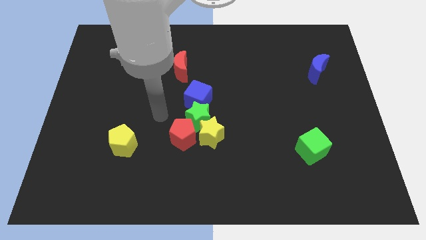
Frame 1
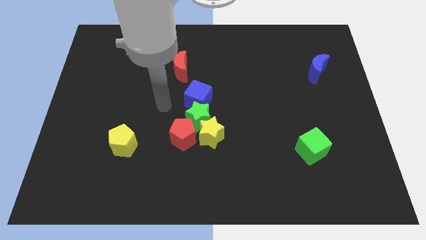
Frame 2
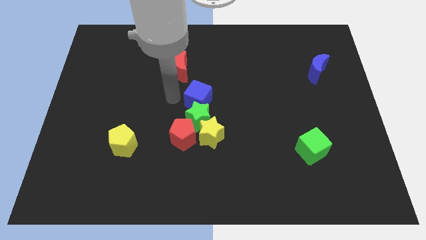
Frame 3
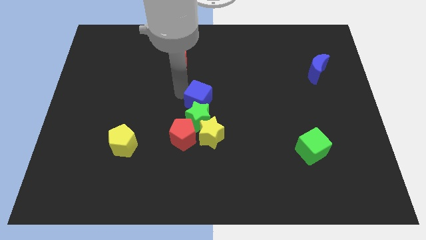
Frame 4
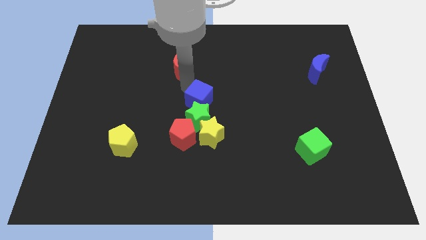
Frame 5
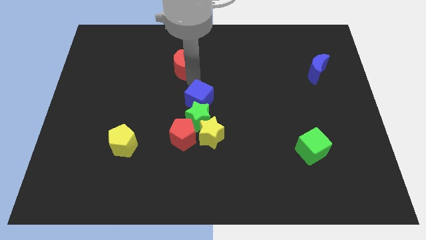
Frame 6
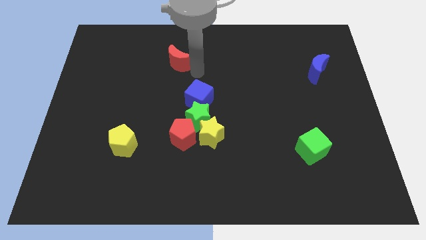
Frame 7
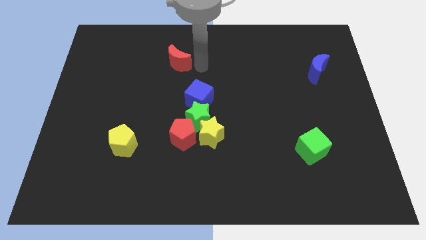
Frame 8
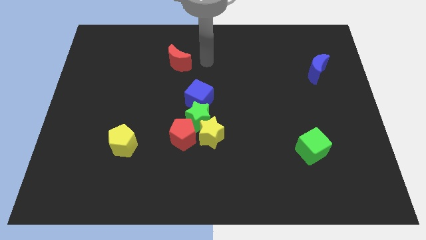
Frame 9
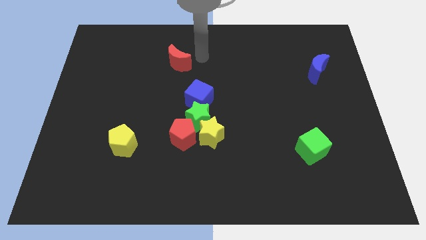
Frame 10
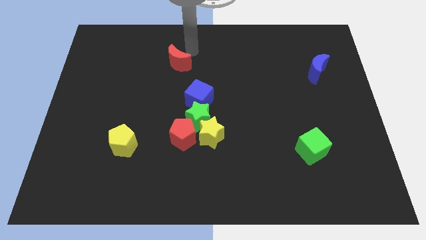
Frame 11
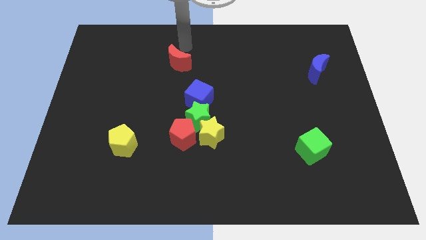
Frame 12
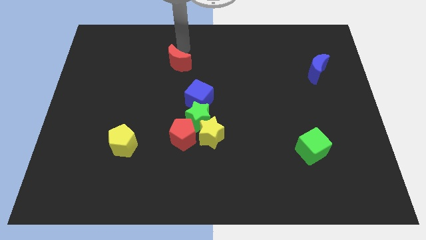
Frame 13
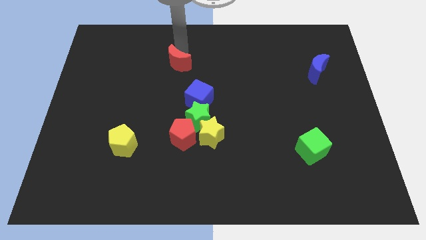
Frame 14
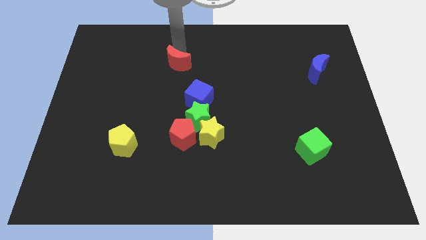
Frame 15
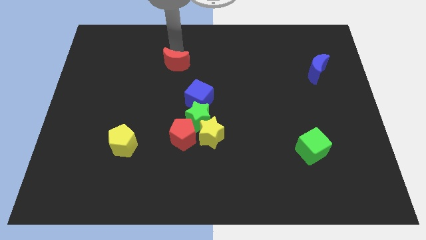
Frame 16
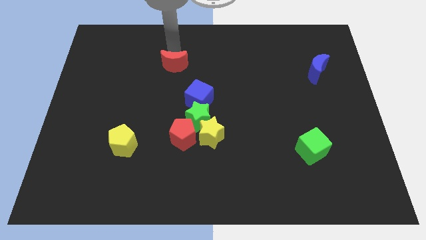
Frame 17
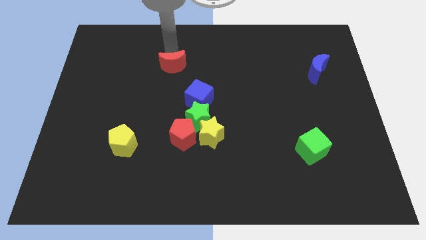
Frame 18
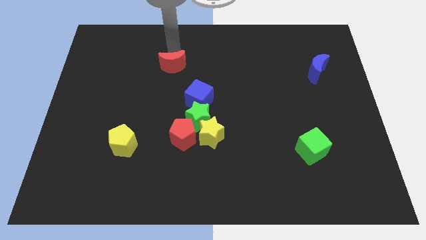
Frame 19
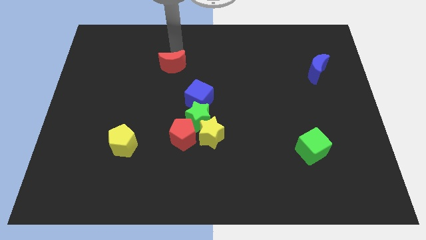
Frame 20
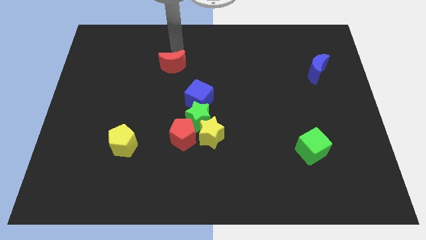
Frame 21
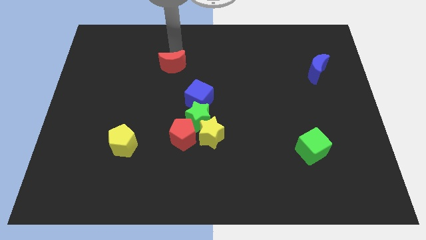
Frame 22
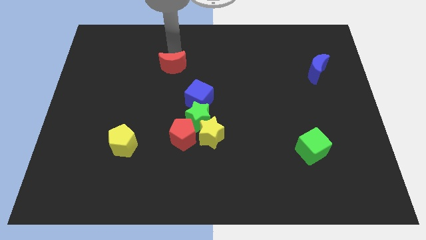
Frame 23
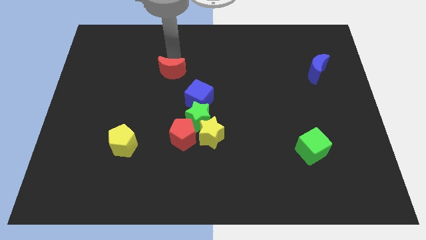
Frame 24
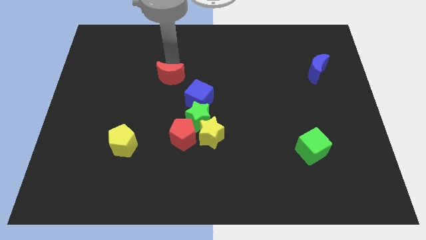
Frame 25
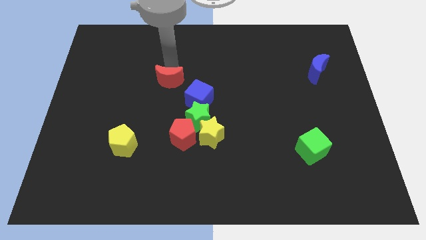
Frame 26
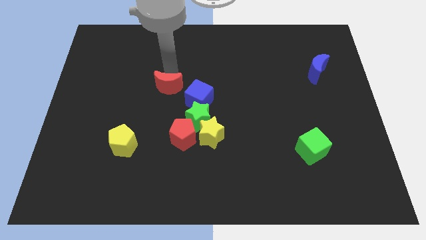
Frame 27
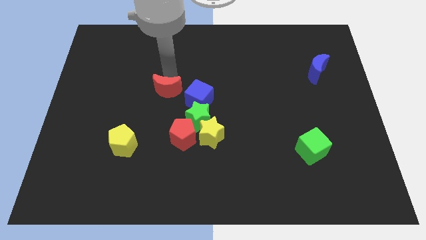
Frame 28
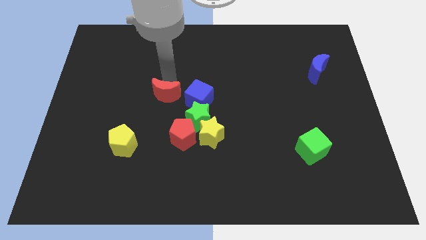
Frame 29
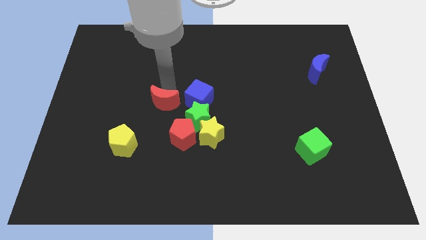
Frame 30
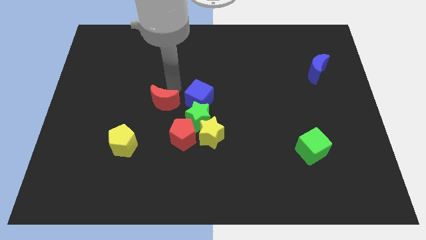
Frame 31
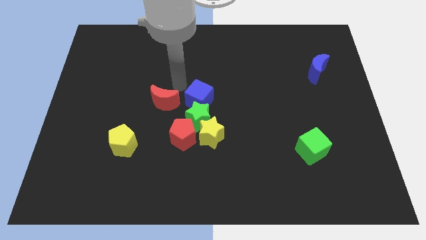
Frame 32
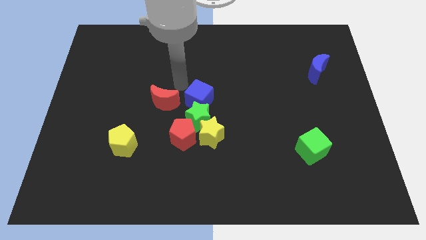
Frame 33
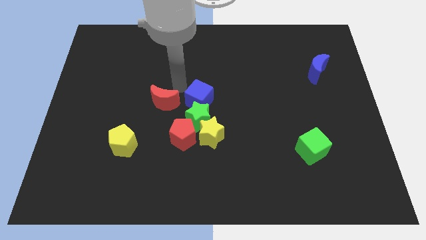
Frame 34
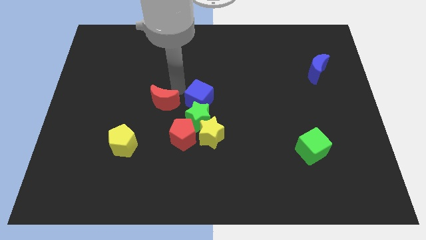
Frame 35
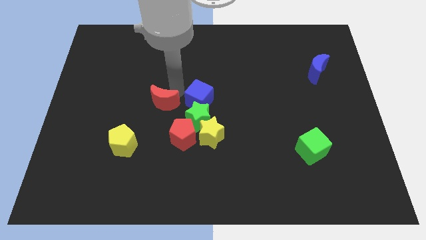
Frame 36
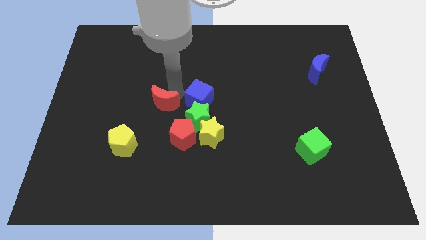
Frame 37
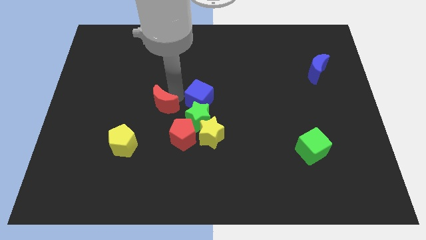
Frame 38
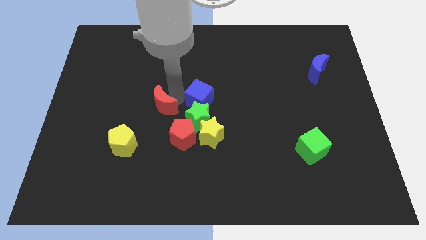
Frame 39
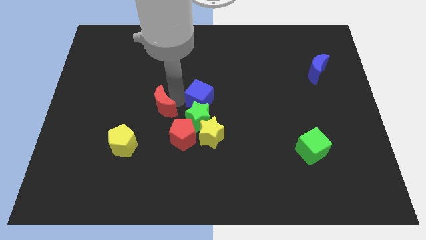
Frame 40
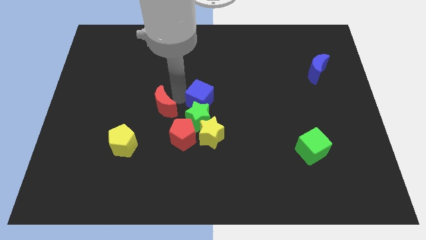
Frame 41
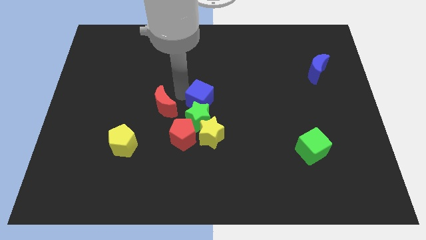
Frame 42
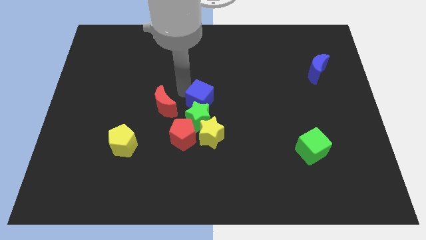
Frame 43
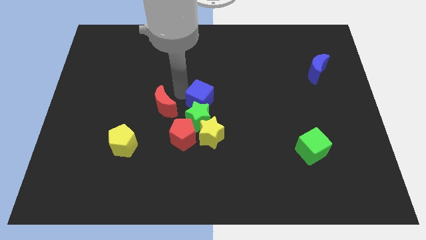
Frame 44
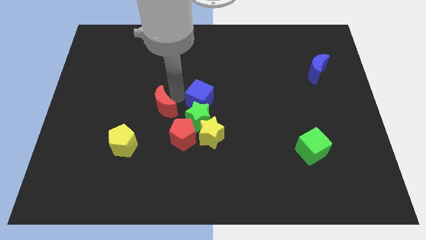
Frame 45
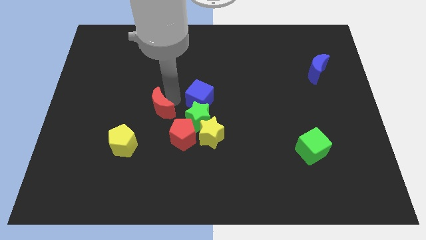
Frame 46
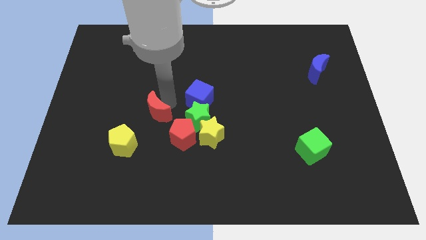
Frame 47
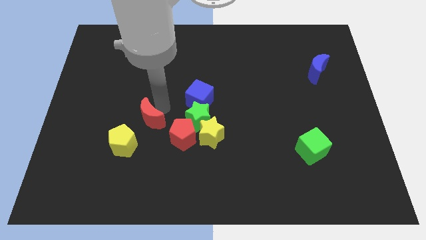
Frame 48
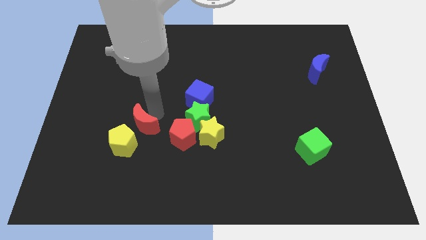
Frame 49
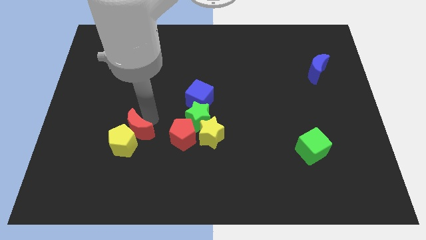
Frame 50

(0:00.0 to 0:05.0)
move the red moon towards the yellow pentagon

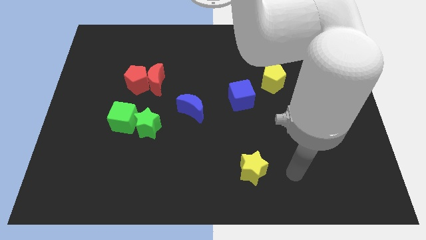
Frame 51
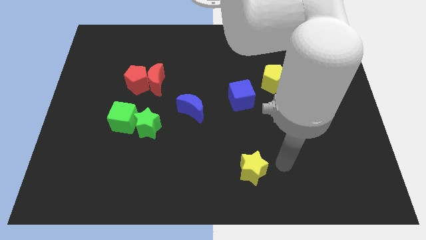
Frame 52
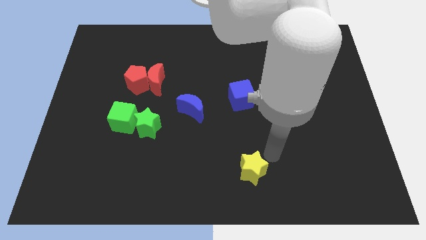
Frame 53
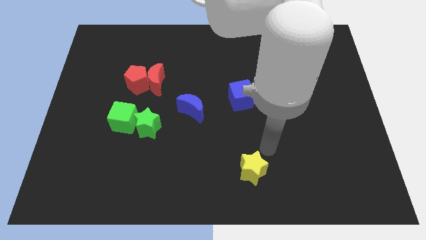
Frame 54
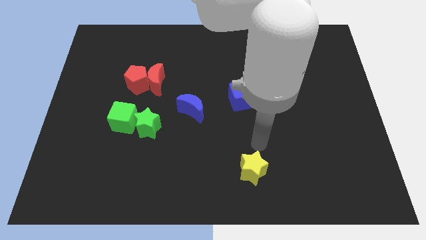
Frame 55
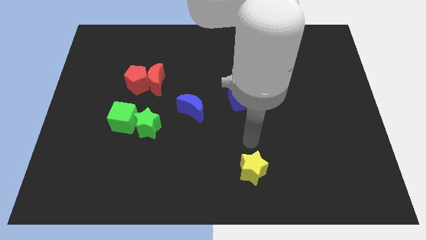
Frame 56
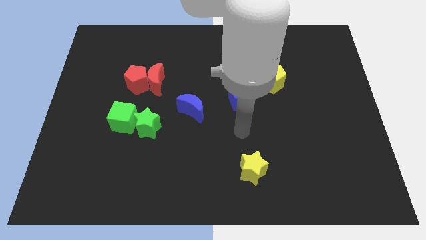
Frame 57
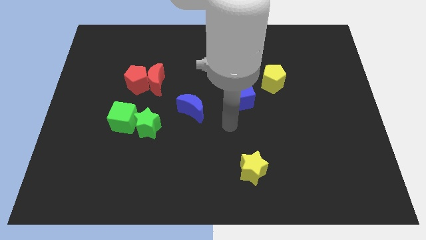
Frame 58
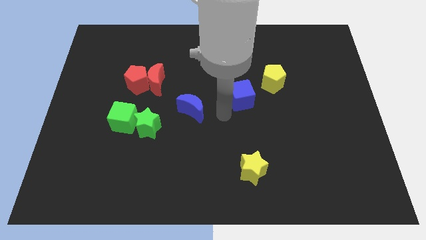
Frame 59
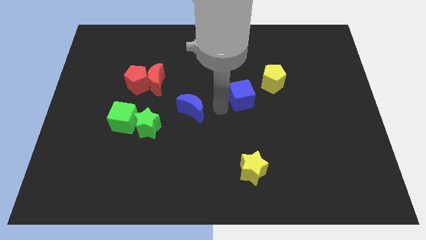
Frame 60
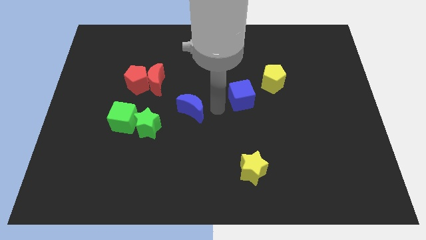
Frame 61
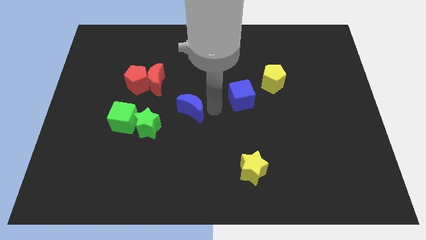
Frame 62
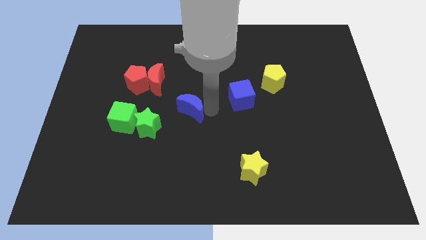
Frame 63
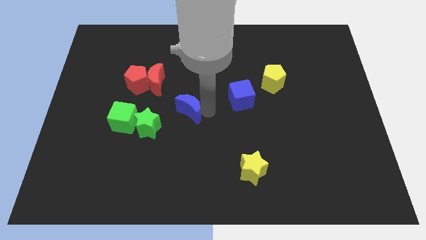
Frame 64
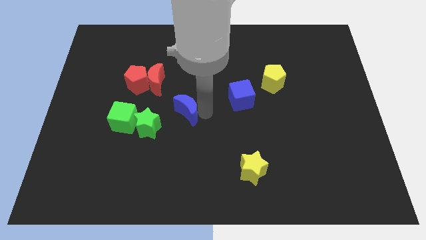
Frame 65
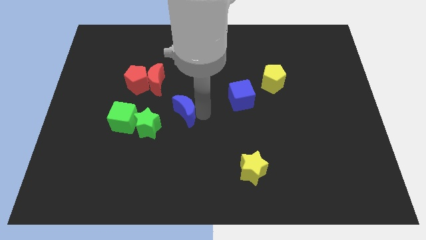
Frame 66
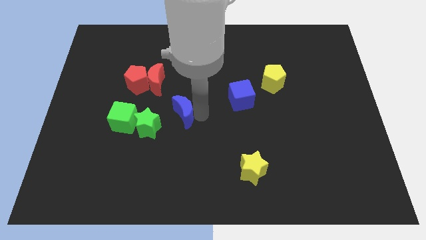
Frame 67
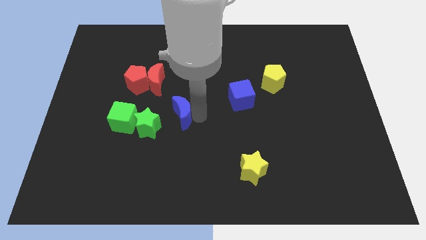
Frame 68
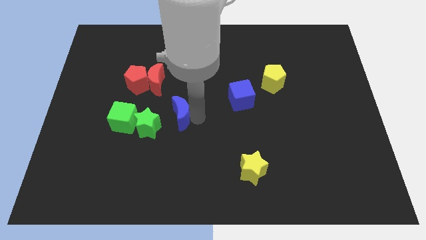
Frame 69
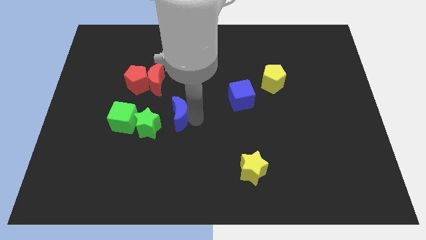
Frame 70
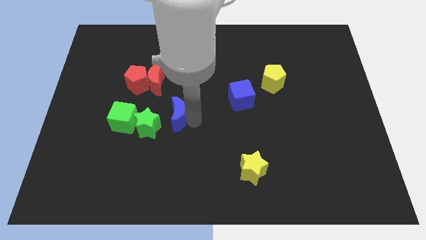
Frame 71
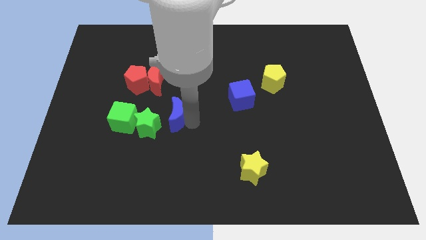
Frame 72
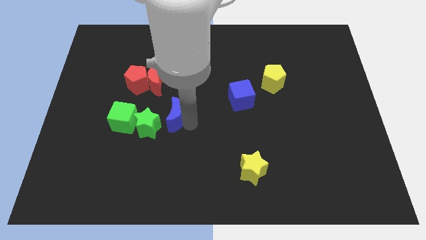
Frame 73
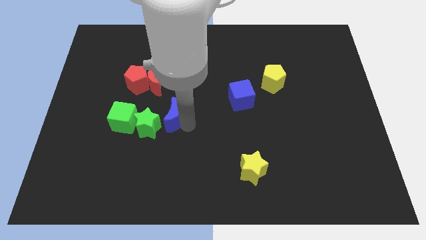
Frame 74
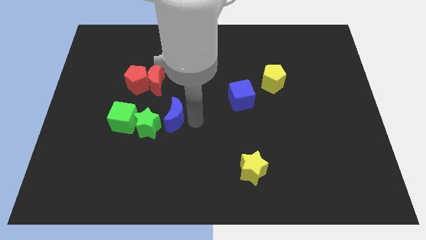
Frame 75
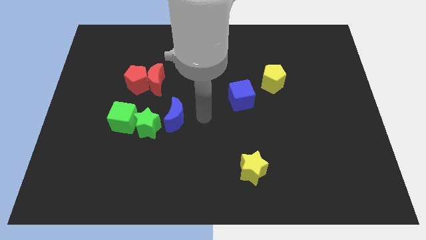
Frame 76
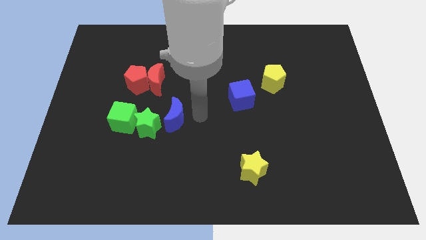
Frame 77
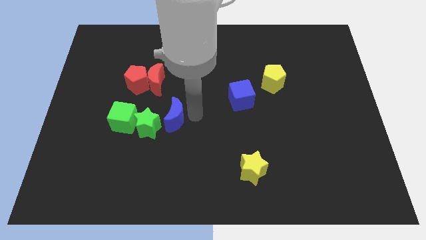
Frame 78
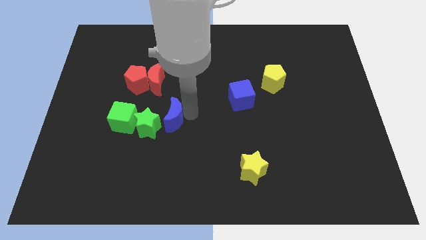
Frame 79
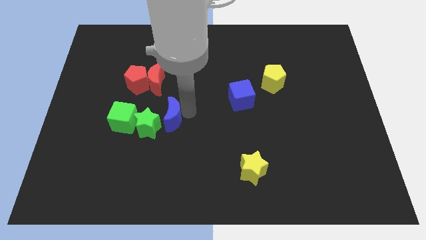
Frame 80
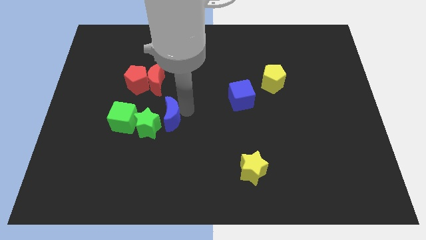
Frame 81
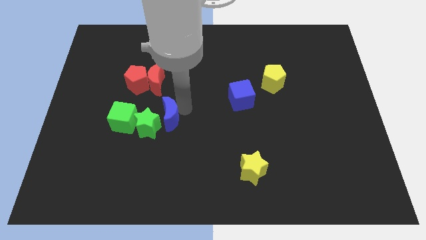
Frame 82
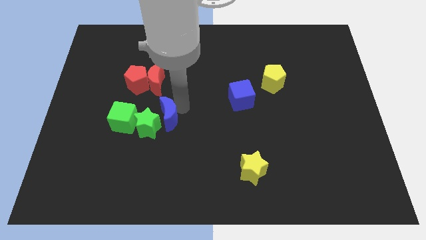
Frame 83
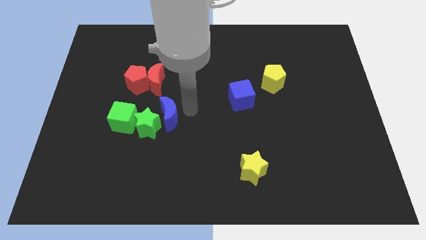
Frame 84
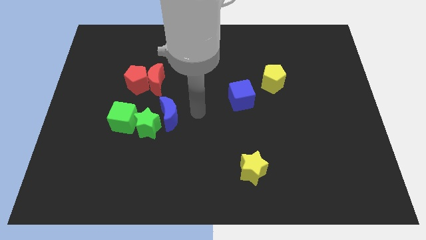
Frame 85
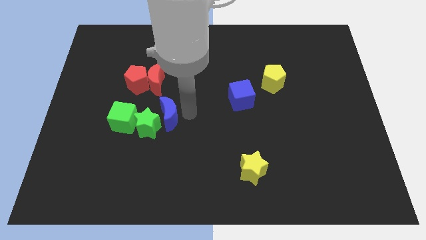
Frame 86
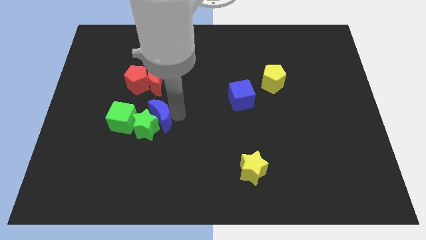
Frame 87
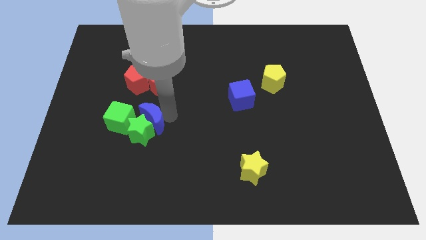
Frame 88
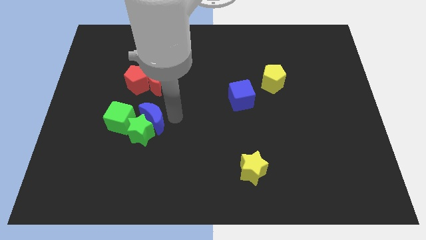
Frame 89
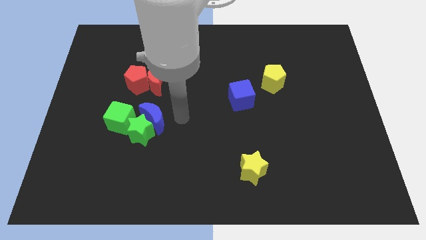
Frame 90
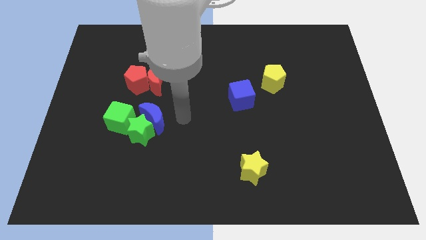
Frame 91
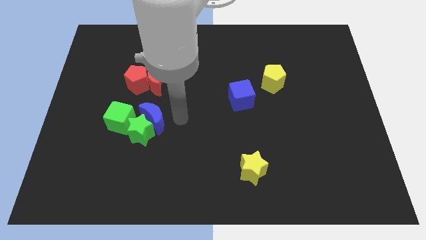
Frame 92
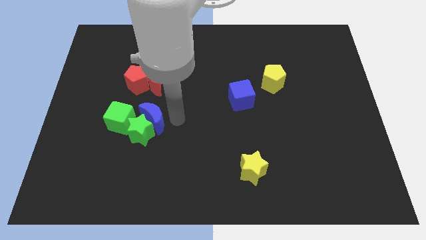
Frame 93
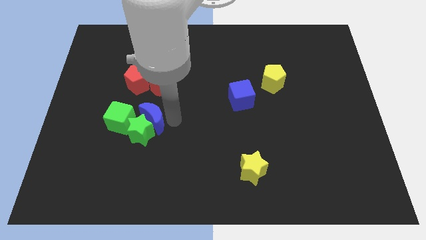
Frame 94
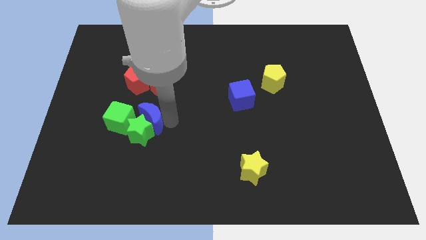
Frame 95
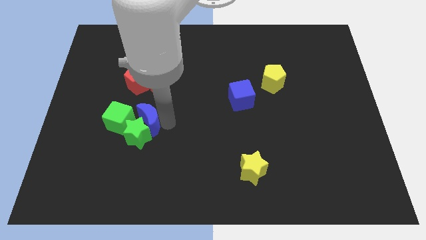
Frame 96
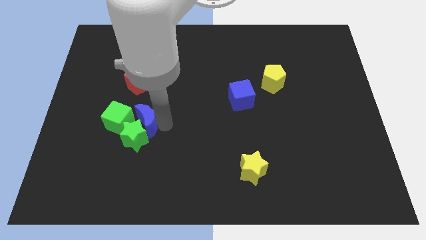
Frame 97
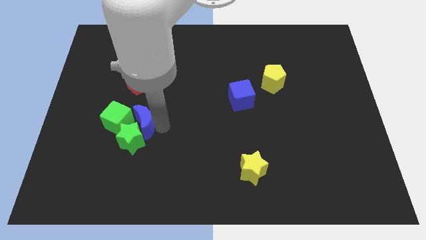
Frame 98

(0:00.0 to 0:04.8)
slide the blue moon to the green cube
